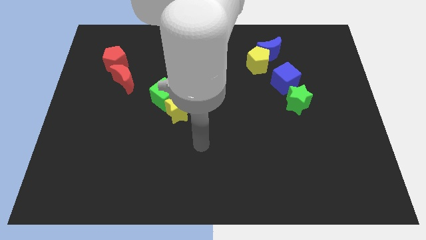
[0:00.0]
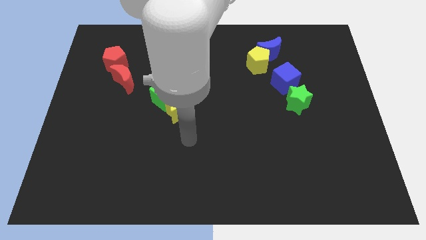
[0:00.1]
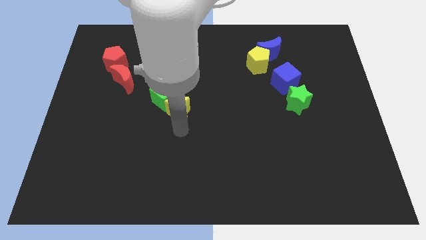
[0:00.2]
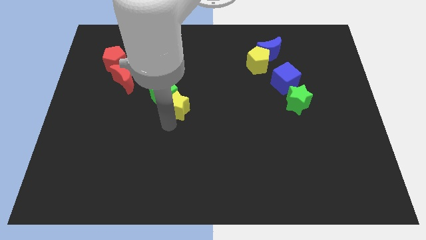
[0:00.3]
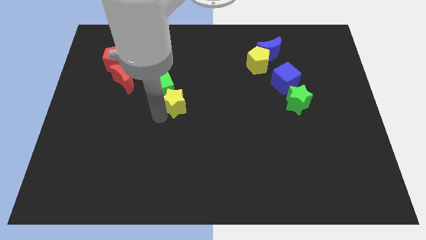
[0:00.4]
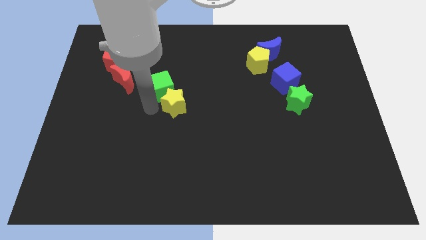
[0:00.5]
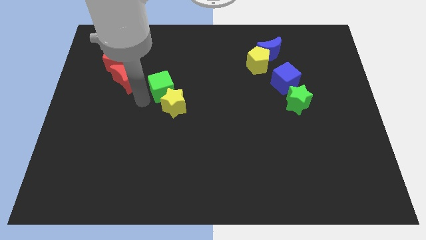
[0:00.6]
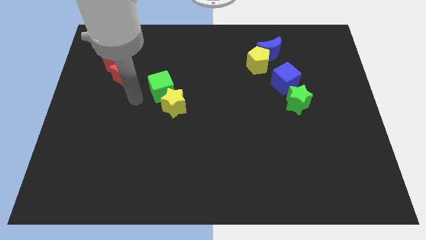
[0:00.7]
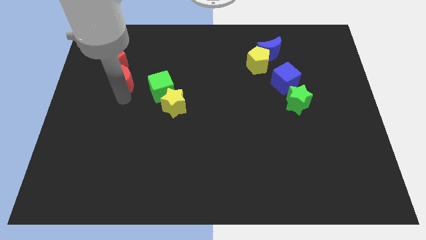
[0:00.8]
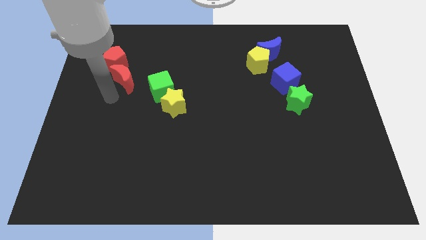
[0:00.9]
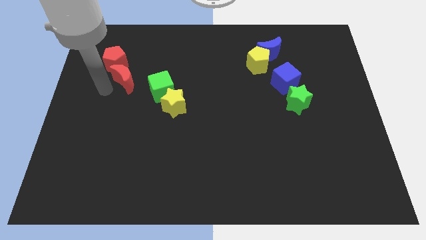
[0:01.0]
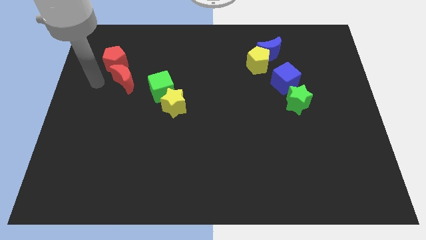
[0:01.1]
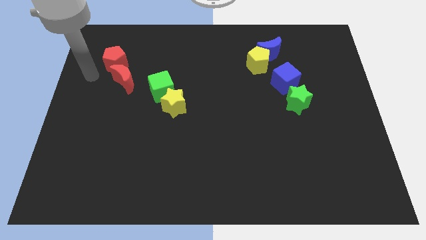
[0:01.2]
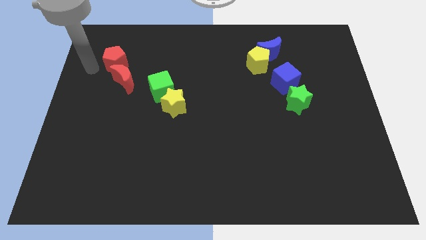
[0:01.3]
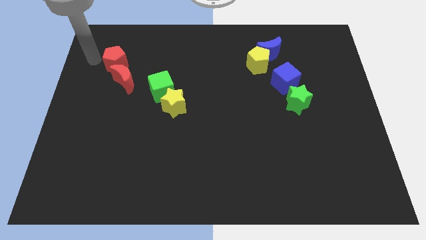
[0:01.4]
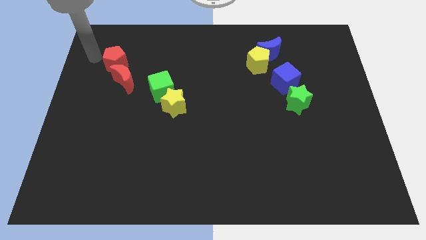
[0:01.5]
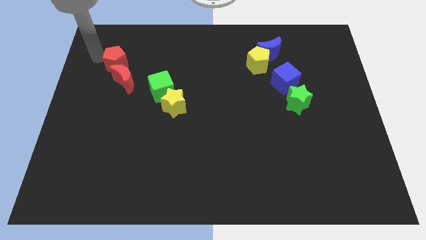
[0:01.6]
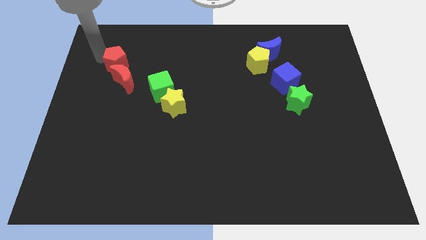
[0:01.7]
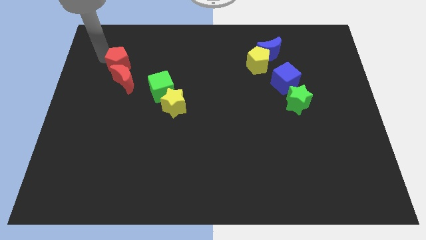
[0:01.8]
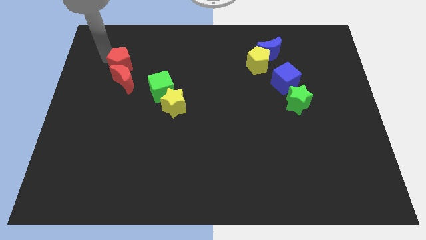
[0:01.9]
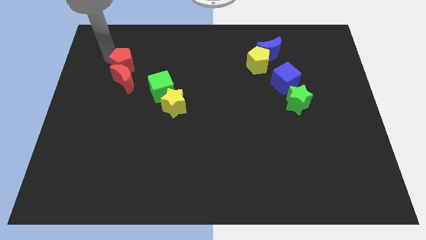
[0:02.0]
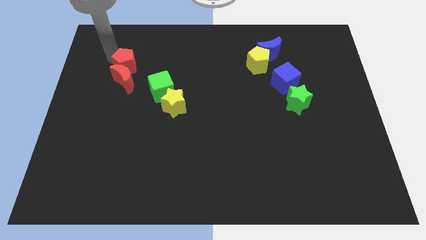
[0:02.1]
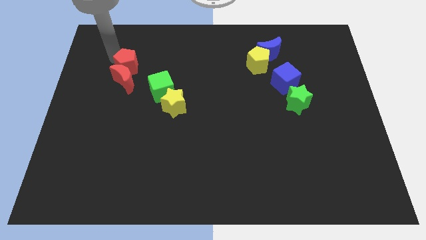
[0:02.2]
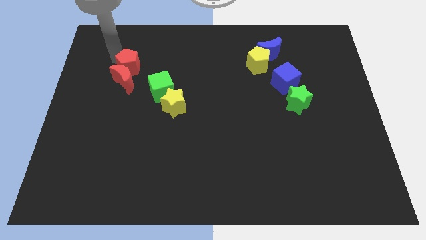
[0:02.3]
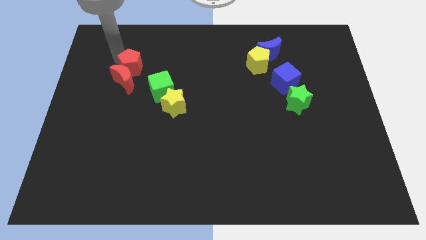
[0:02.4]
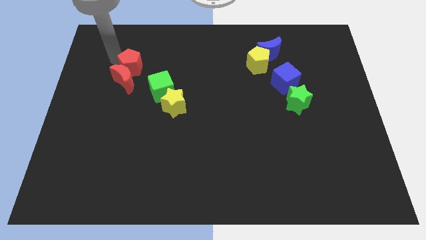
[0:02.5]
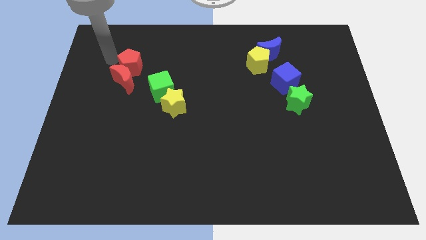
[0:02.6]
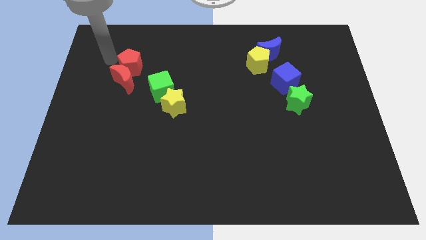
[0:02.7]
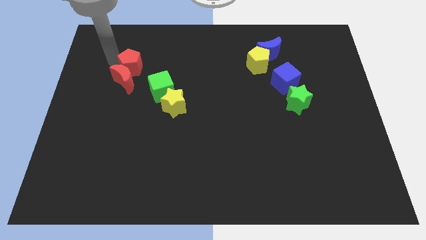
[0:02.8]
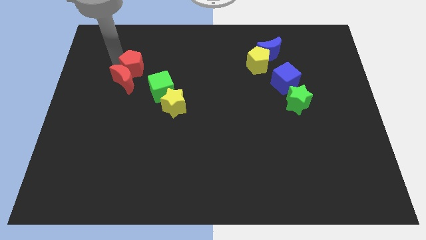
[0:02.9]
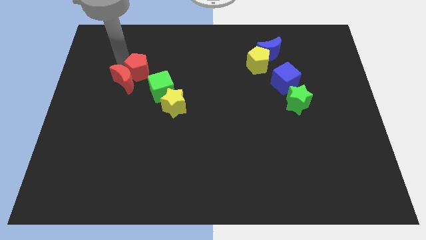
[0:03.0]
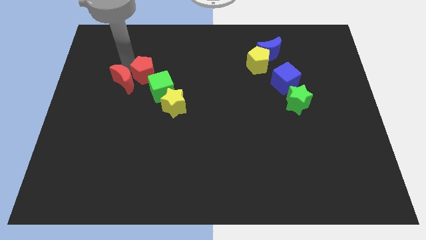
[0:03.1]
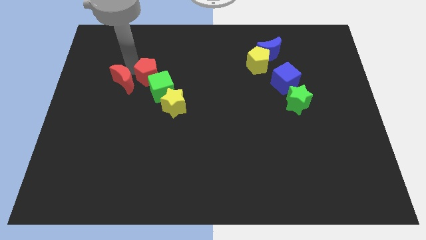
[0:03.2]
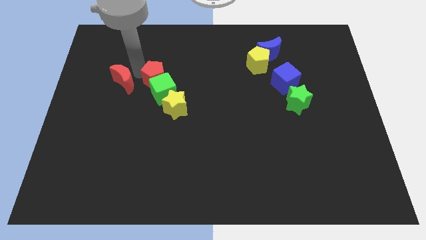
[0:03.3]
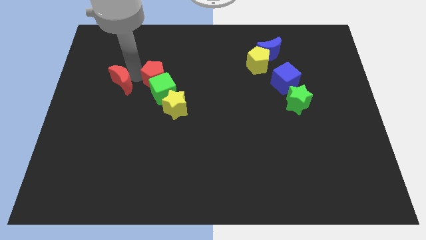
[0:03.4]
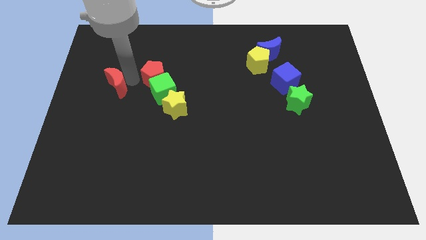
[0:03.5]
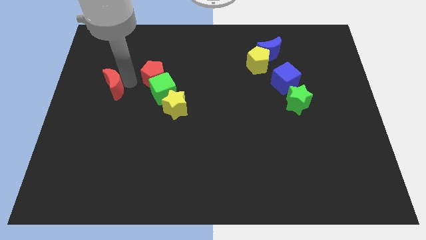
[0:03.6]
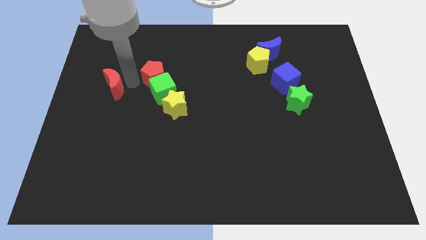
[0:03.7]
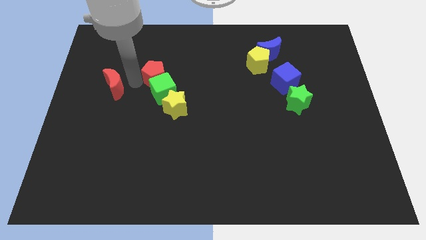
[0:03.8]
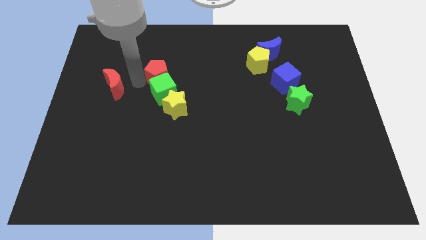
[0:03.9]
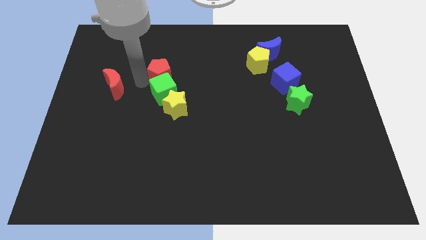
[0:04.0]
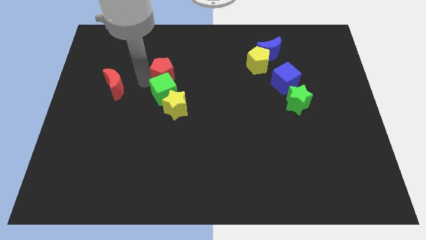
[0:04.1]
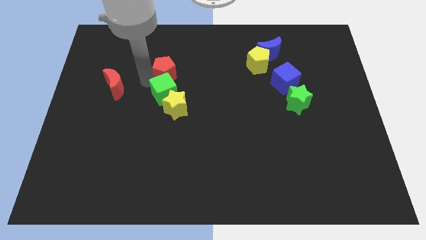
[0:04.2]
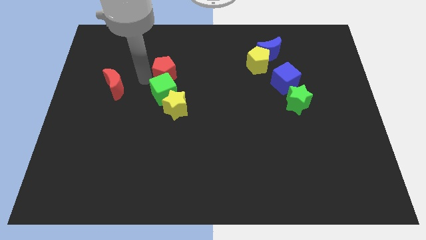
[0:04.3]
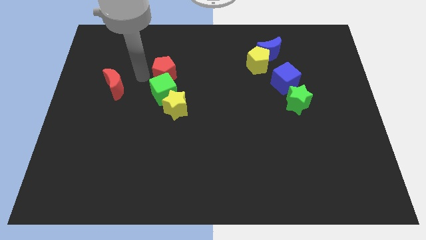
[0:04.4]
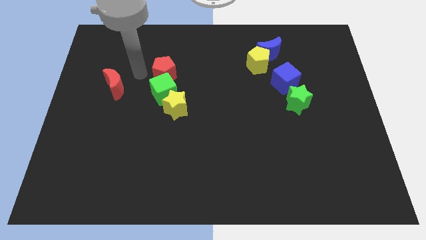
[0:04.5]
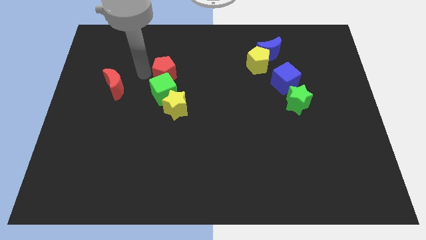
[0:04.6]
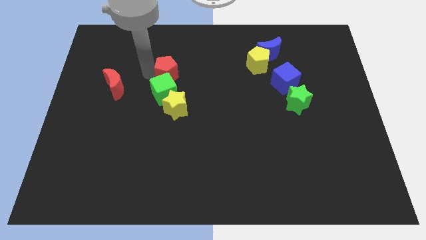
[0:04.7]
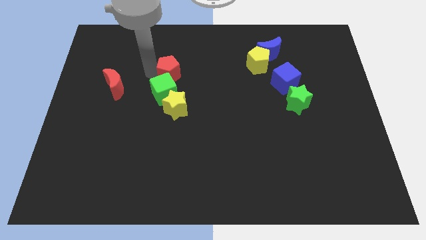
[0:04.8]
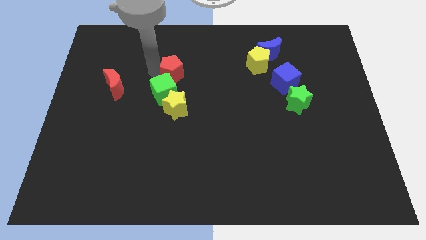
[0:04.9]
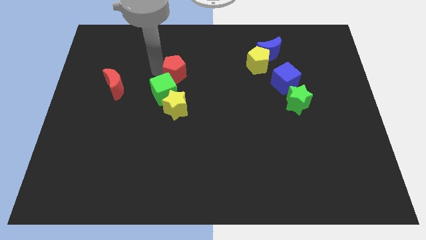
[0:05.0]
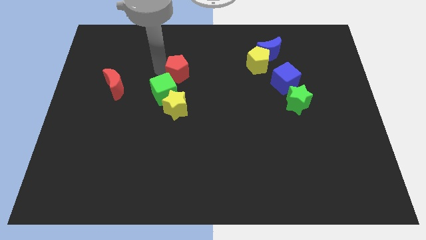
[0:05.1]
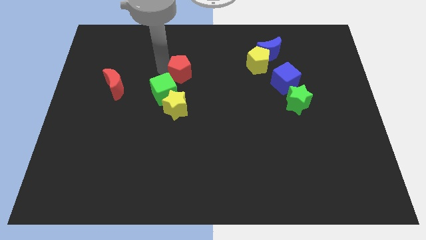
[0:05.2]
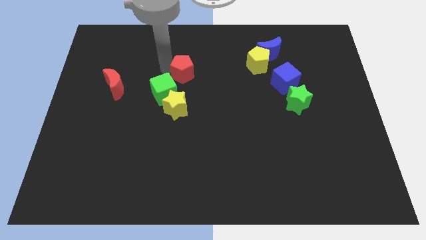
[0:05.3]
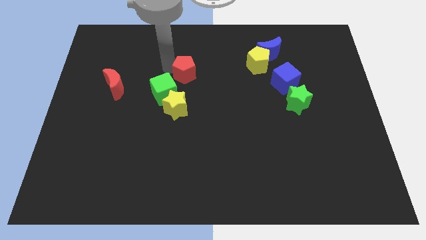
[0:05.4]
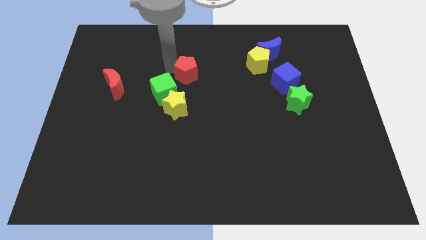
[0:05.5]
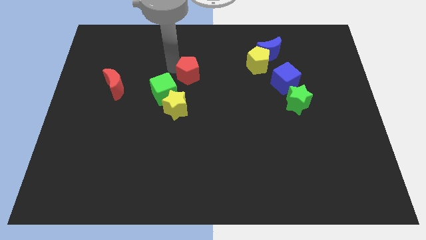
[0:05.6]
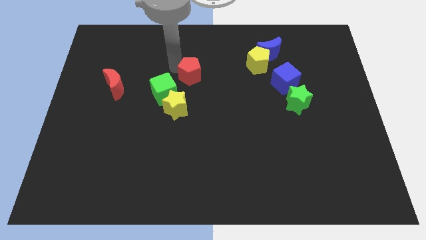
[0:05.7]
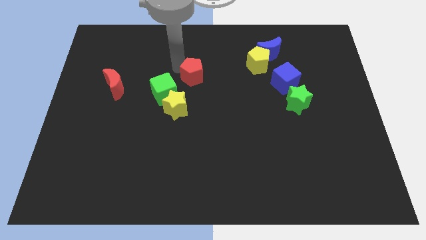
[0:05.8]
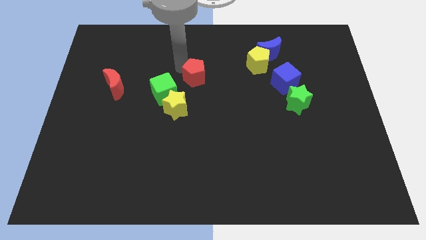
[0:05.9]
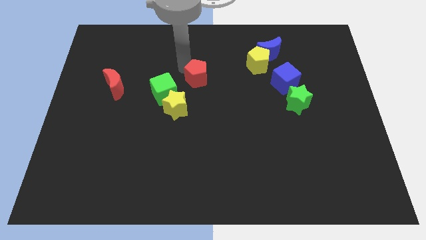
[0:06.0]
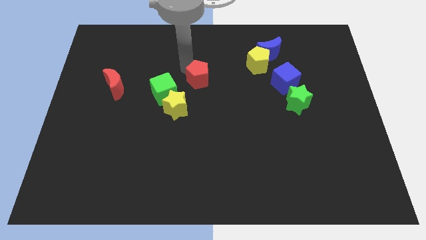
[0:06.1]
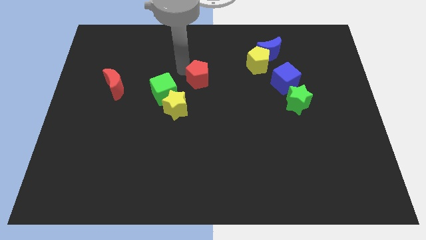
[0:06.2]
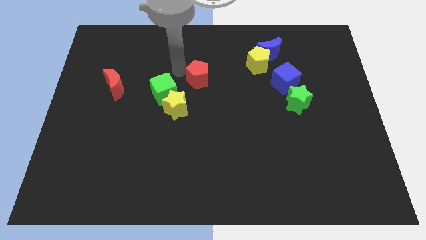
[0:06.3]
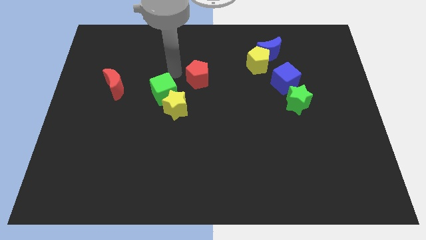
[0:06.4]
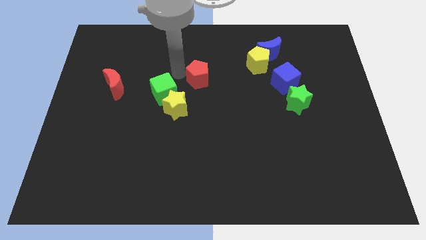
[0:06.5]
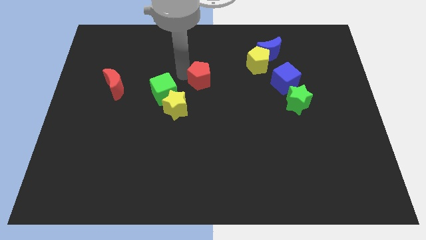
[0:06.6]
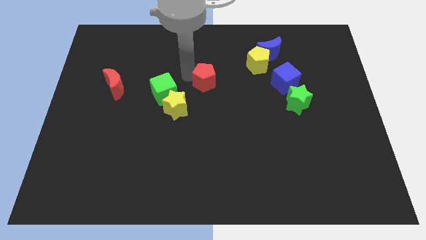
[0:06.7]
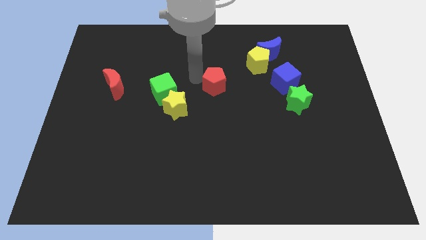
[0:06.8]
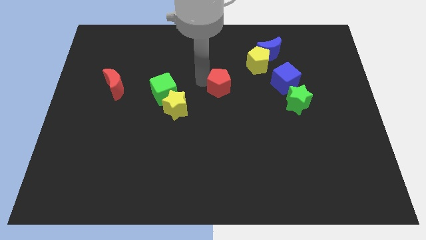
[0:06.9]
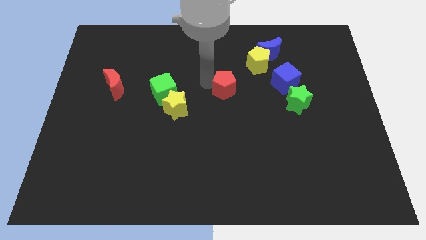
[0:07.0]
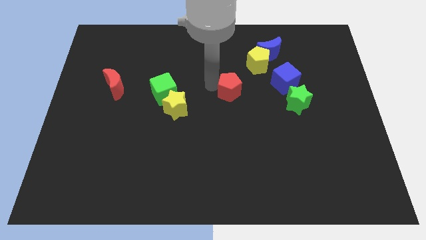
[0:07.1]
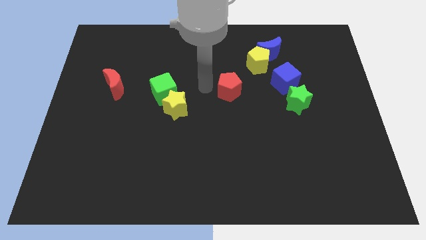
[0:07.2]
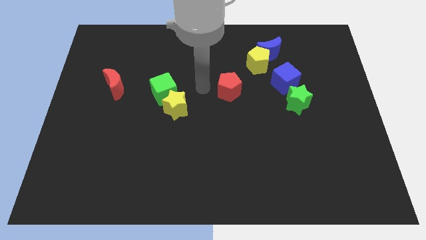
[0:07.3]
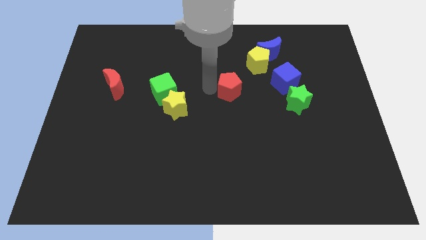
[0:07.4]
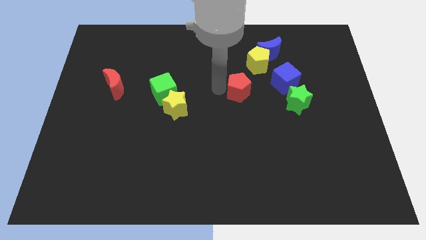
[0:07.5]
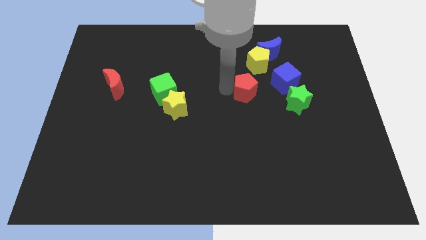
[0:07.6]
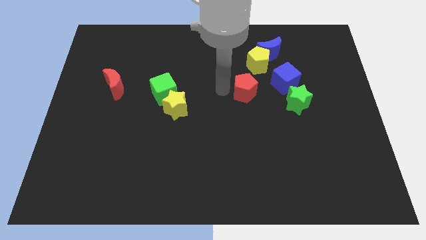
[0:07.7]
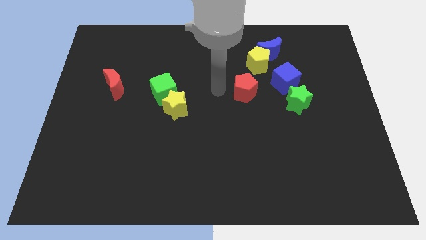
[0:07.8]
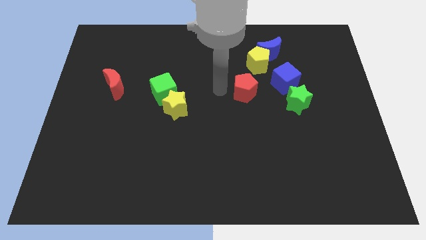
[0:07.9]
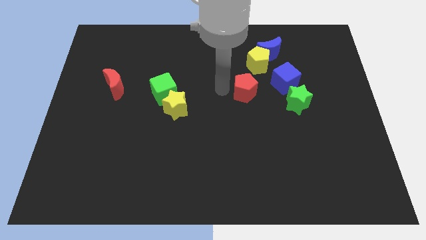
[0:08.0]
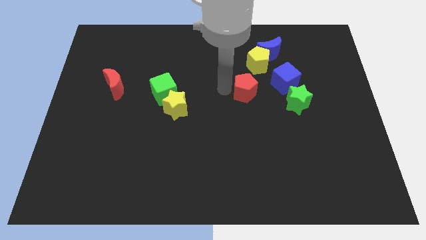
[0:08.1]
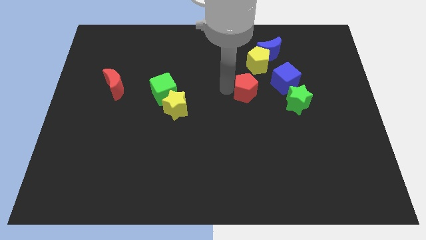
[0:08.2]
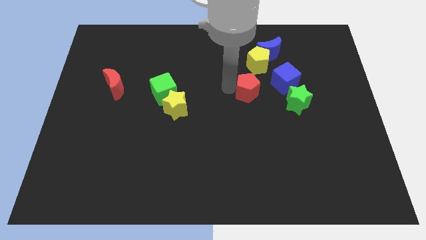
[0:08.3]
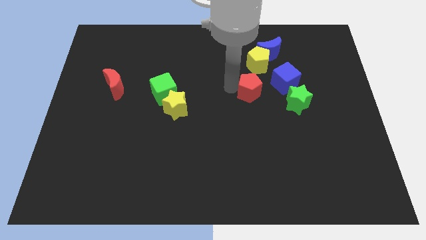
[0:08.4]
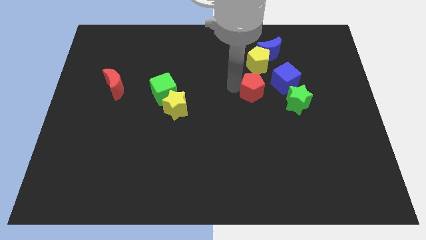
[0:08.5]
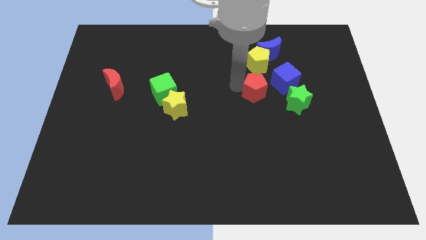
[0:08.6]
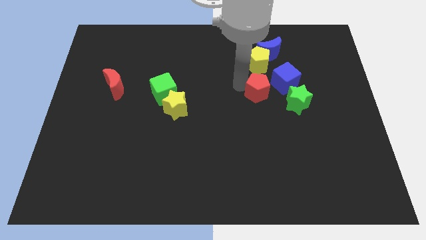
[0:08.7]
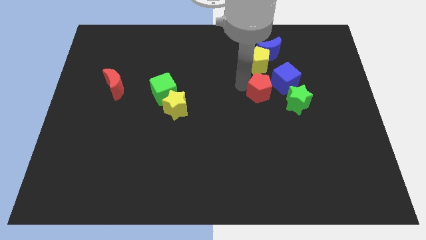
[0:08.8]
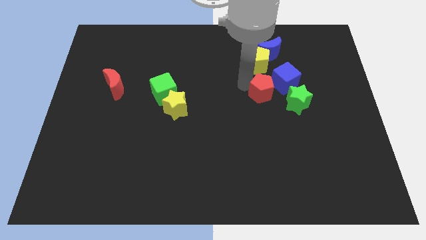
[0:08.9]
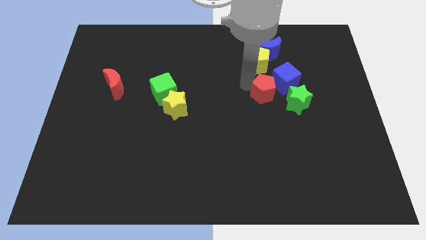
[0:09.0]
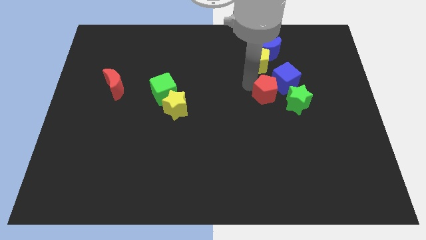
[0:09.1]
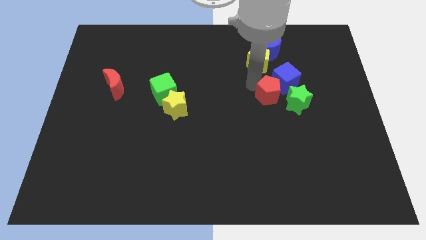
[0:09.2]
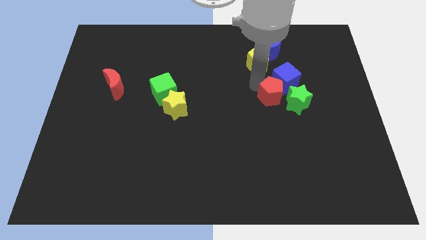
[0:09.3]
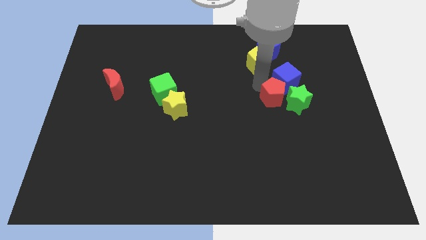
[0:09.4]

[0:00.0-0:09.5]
slide the red pentagon next to the green star
